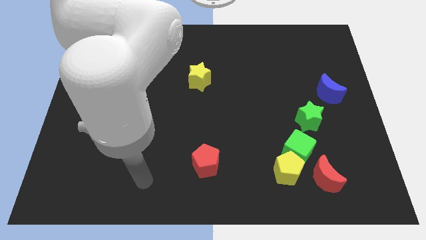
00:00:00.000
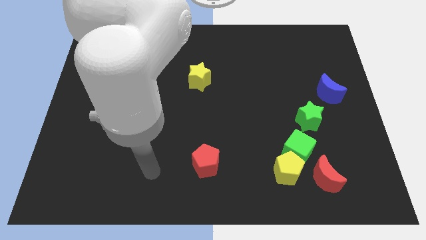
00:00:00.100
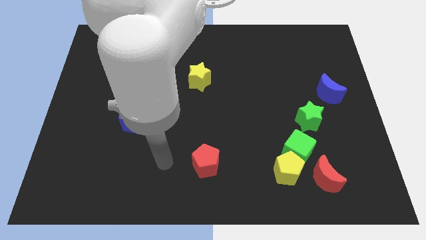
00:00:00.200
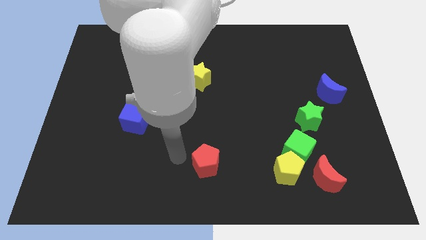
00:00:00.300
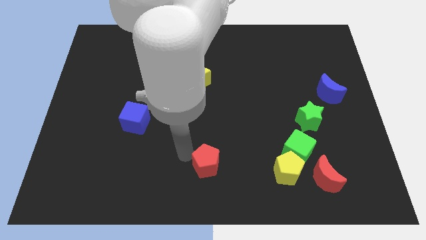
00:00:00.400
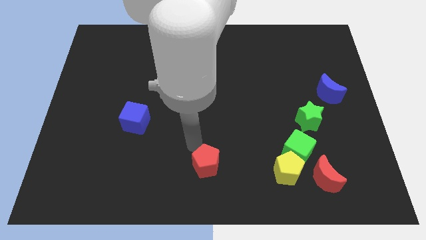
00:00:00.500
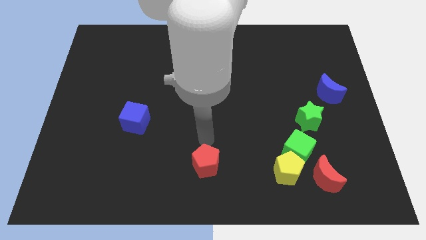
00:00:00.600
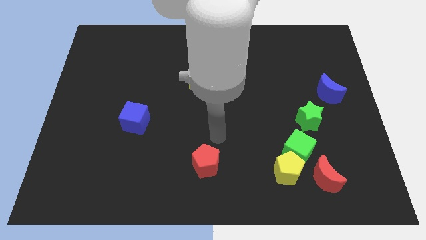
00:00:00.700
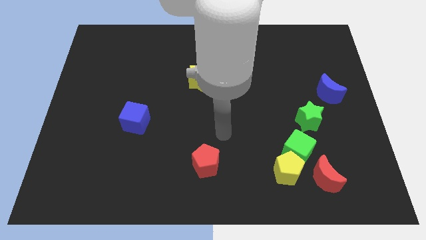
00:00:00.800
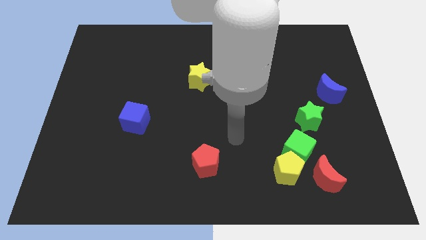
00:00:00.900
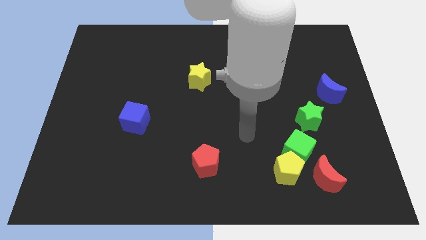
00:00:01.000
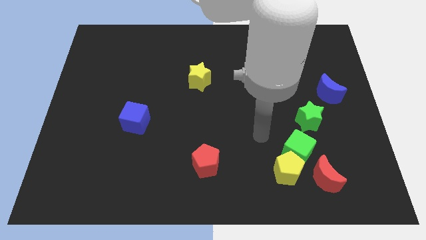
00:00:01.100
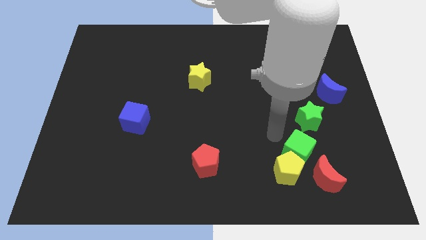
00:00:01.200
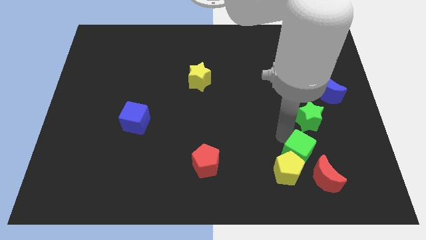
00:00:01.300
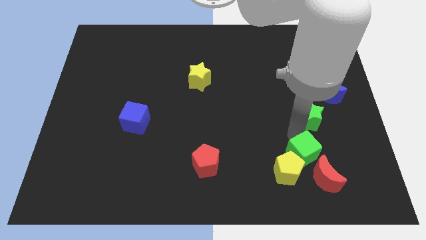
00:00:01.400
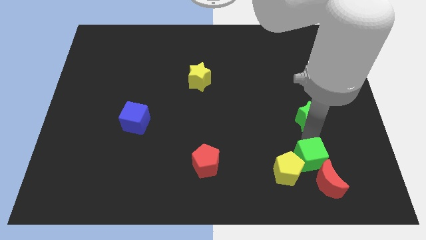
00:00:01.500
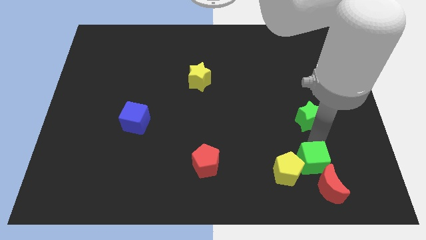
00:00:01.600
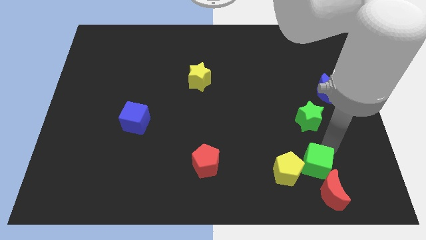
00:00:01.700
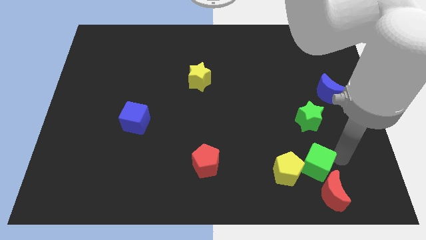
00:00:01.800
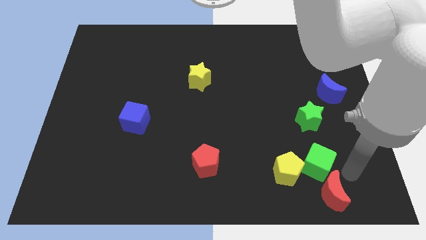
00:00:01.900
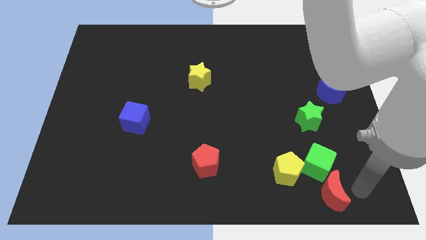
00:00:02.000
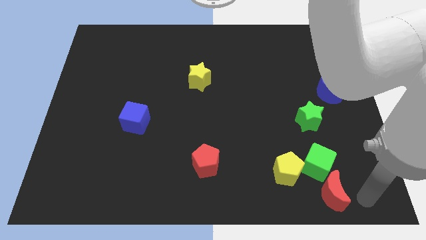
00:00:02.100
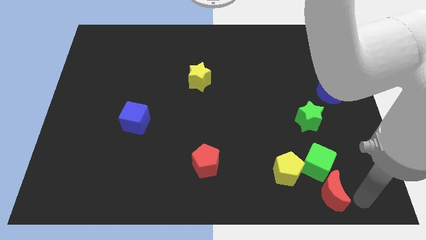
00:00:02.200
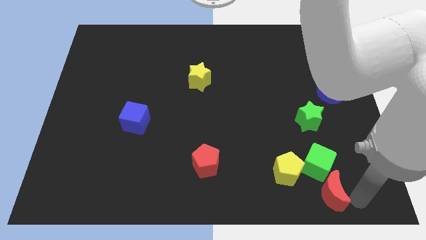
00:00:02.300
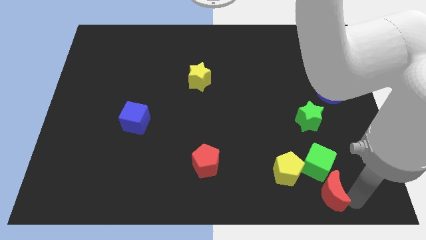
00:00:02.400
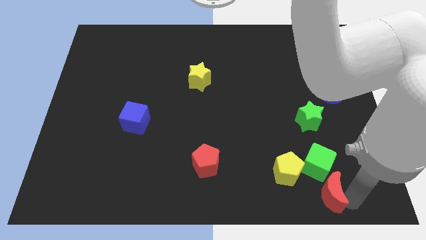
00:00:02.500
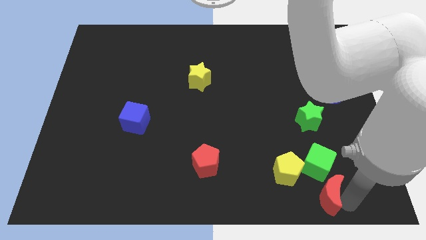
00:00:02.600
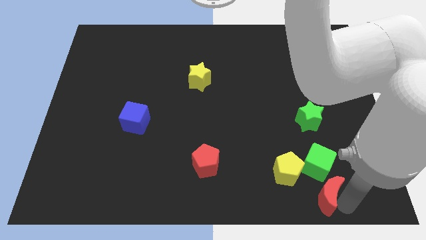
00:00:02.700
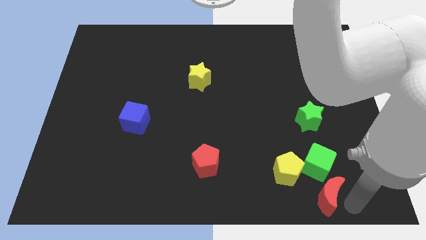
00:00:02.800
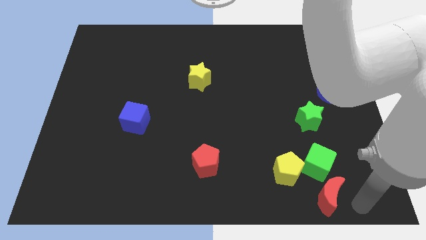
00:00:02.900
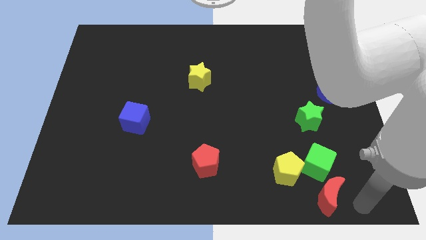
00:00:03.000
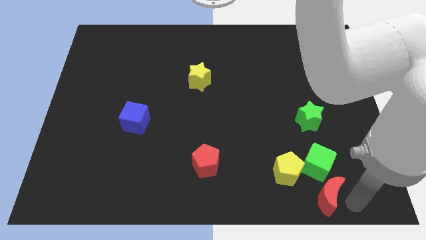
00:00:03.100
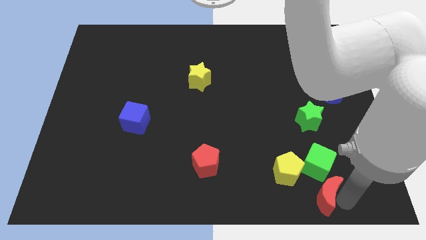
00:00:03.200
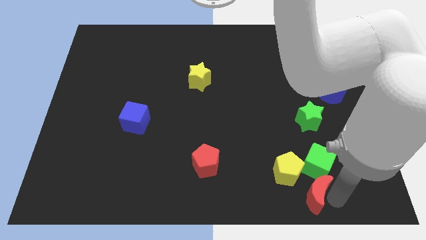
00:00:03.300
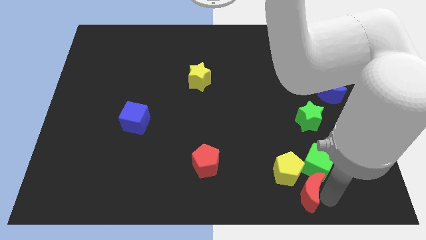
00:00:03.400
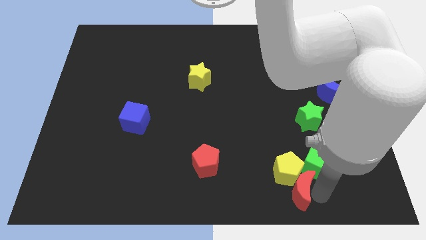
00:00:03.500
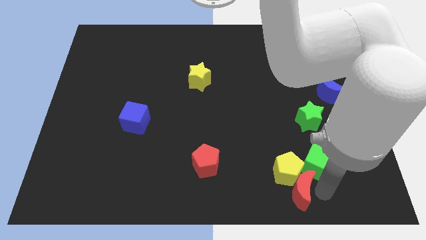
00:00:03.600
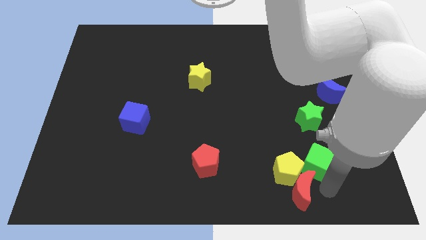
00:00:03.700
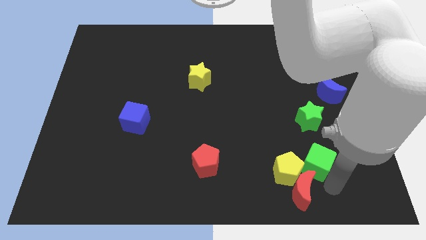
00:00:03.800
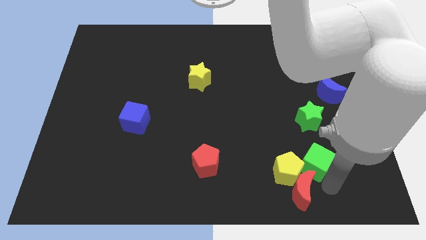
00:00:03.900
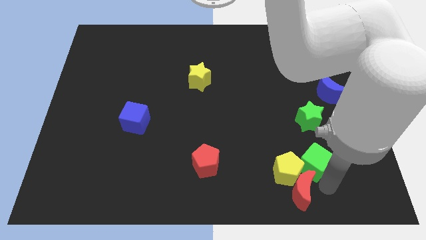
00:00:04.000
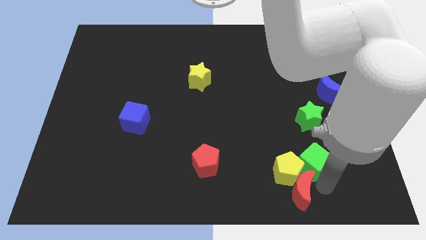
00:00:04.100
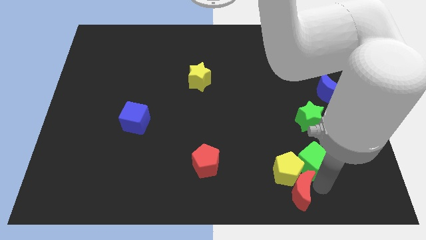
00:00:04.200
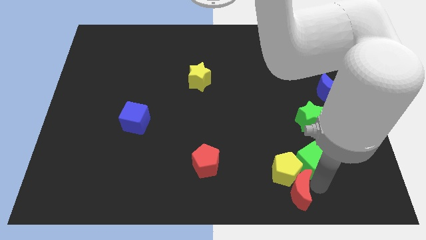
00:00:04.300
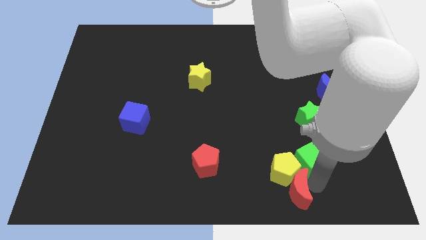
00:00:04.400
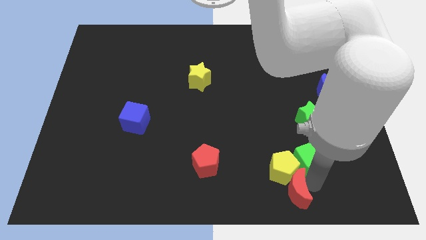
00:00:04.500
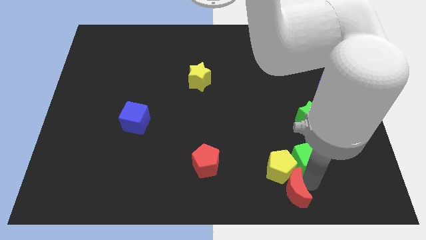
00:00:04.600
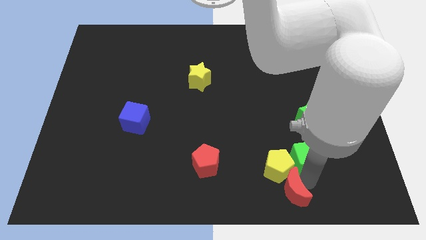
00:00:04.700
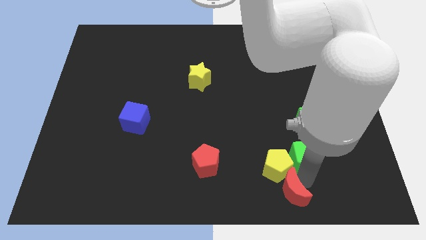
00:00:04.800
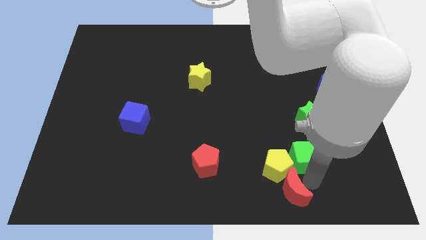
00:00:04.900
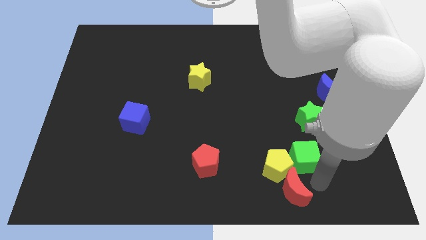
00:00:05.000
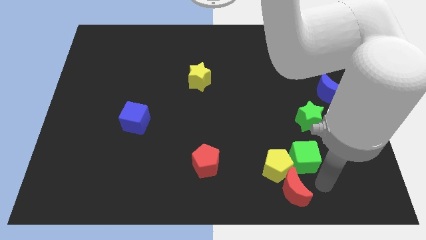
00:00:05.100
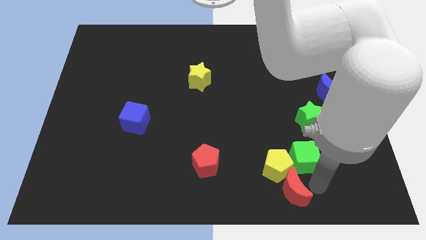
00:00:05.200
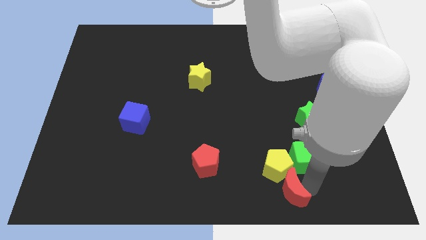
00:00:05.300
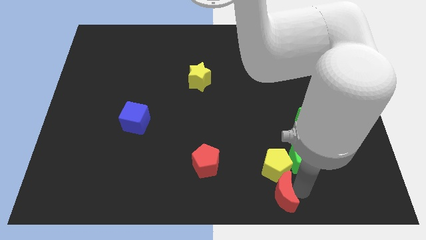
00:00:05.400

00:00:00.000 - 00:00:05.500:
slide the red moon to the bottom side
